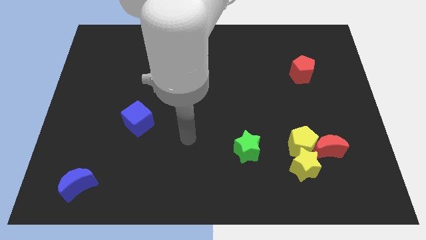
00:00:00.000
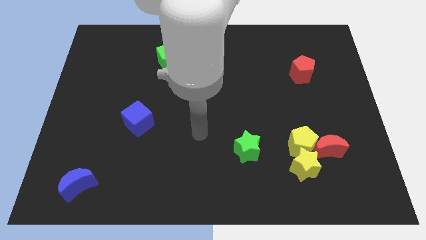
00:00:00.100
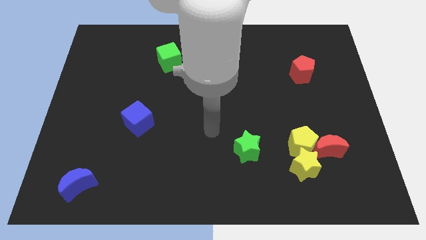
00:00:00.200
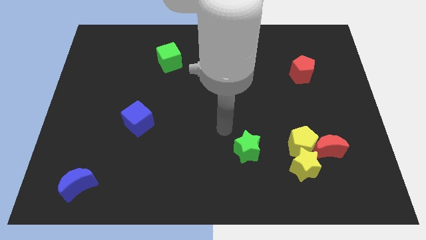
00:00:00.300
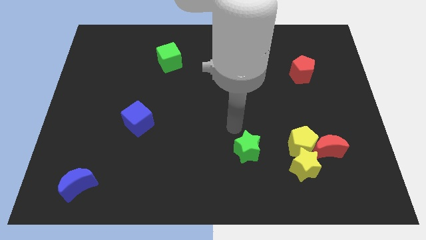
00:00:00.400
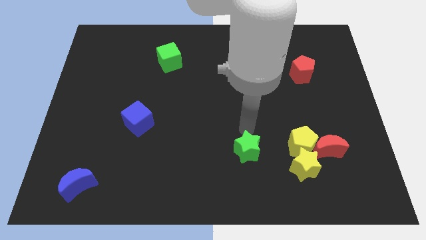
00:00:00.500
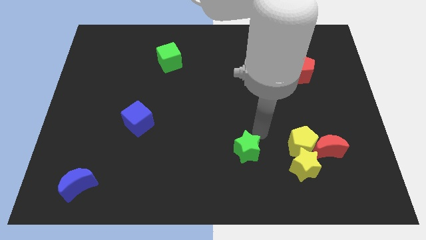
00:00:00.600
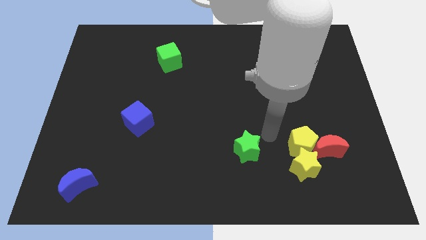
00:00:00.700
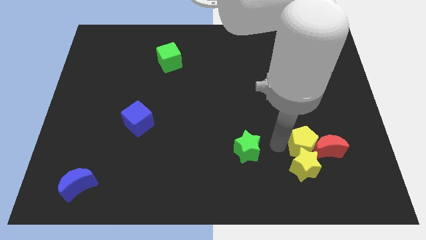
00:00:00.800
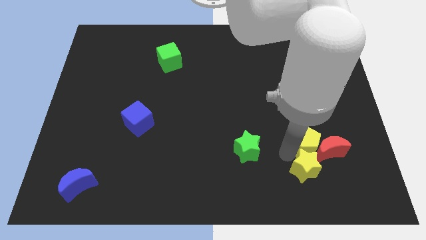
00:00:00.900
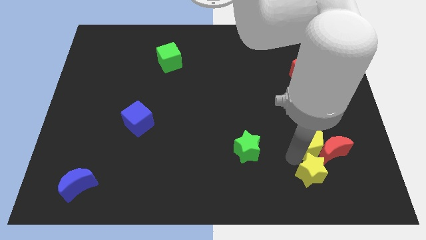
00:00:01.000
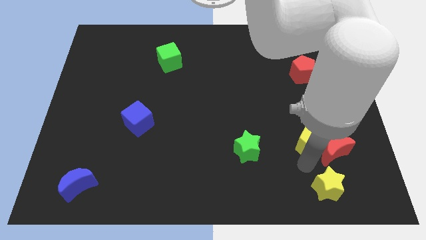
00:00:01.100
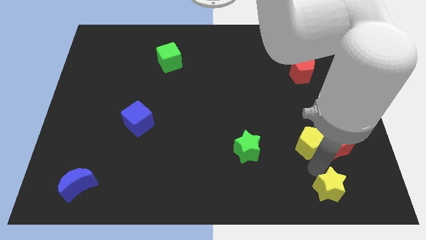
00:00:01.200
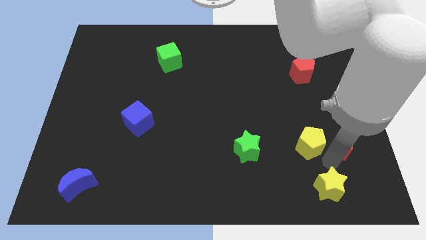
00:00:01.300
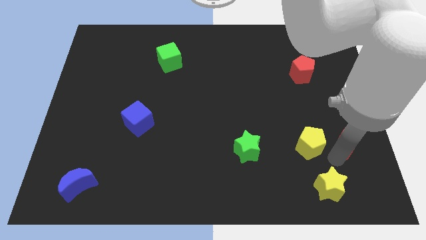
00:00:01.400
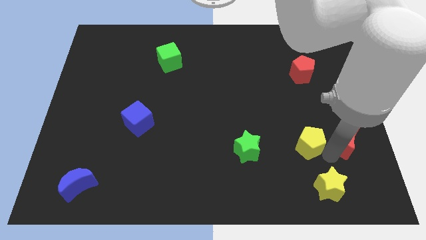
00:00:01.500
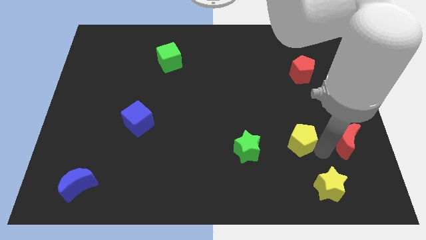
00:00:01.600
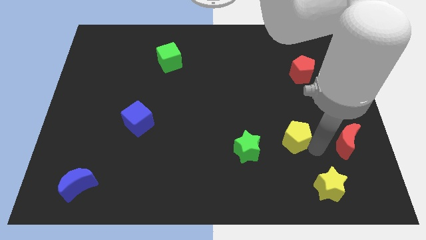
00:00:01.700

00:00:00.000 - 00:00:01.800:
pull the yellow pentagon apart from the yellow star and red moon

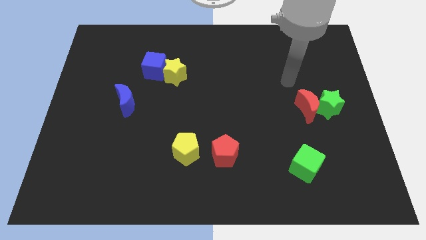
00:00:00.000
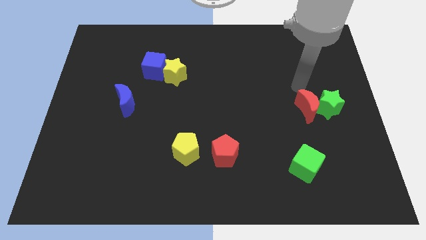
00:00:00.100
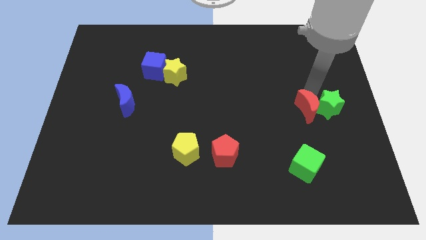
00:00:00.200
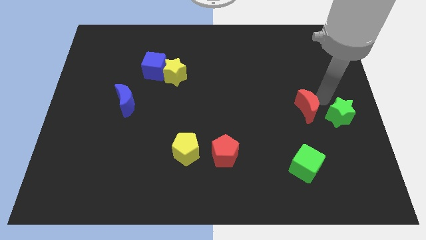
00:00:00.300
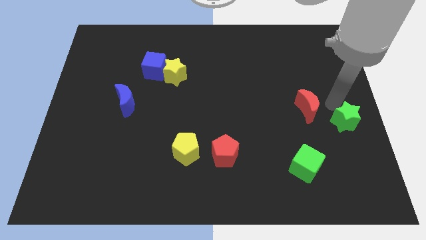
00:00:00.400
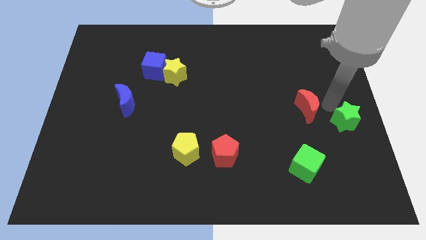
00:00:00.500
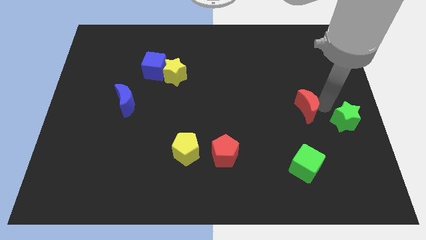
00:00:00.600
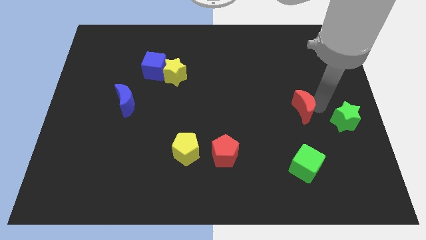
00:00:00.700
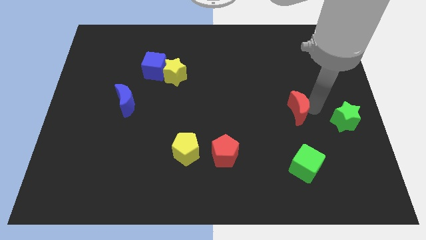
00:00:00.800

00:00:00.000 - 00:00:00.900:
pull the red moon apart from the green star

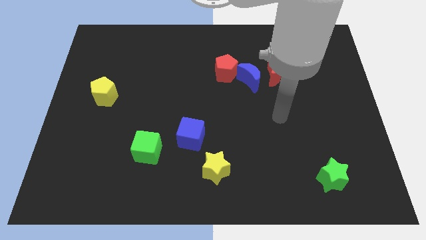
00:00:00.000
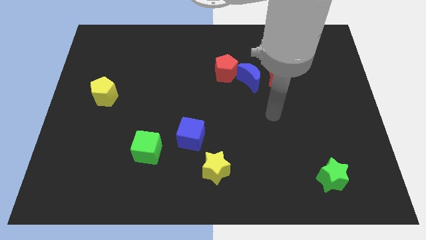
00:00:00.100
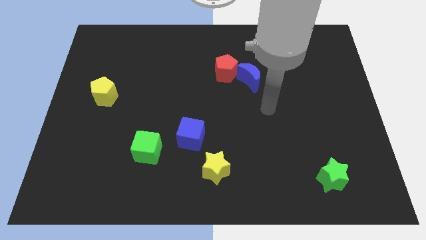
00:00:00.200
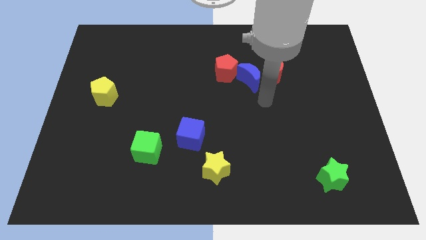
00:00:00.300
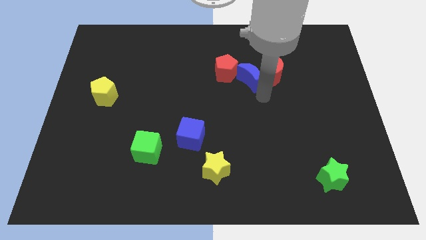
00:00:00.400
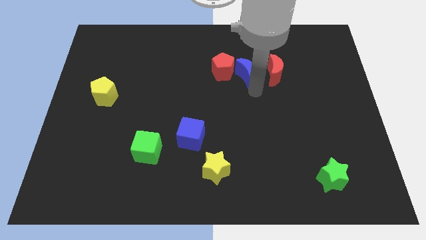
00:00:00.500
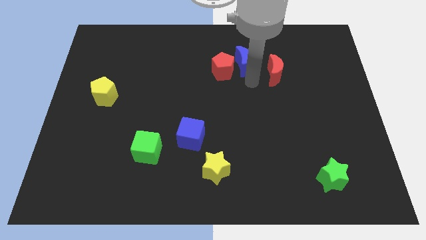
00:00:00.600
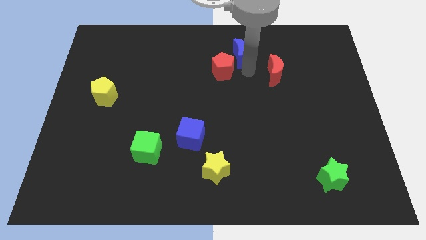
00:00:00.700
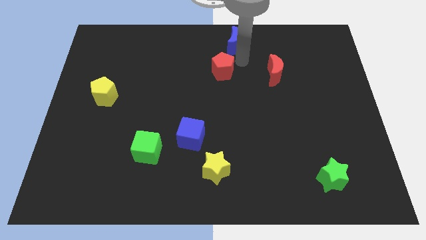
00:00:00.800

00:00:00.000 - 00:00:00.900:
move the red pentagon away from the blue moon

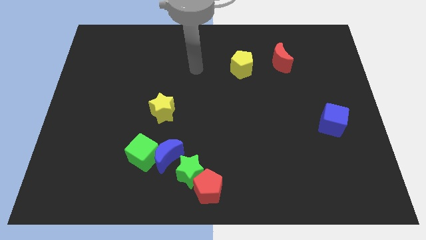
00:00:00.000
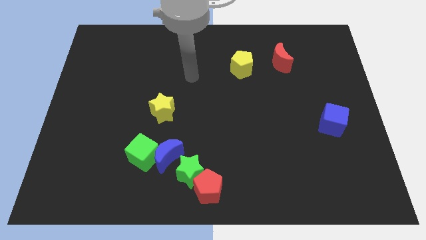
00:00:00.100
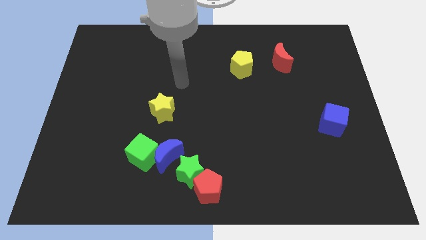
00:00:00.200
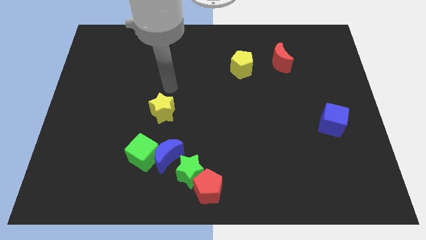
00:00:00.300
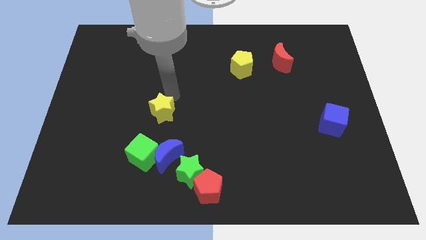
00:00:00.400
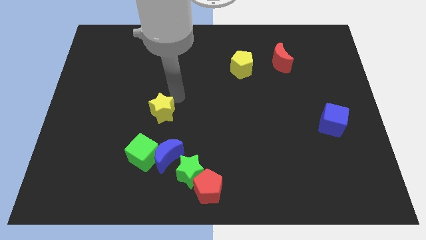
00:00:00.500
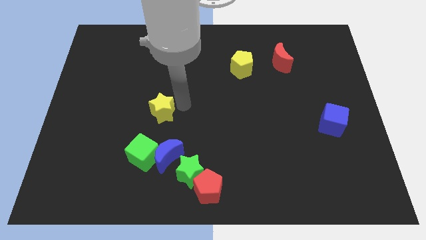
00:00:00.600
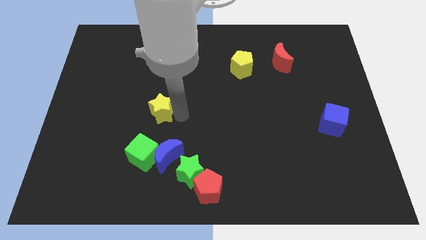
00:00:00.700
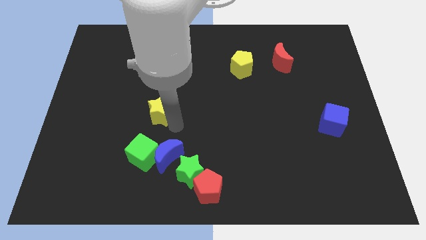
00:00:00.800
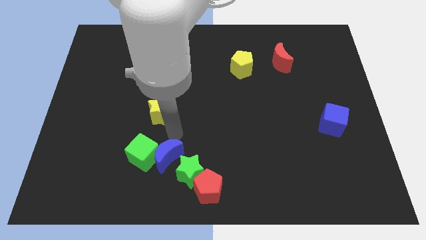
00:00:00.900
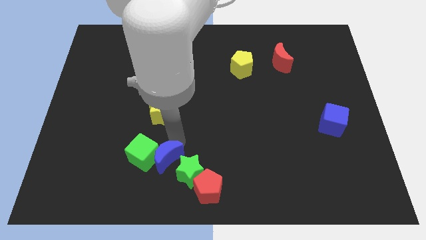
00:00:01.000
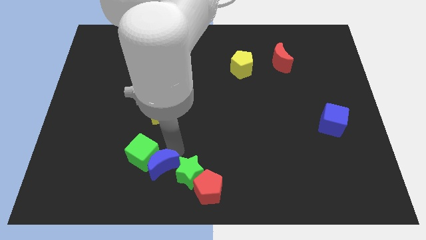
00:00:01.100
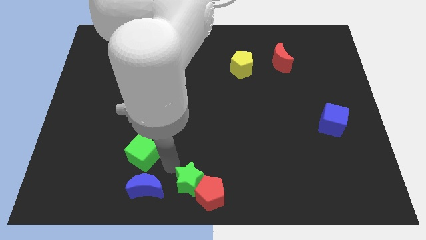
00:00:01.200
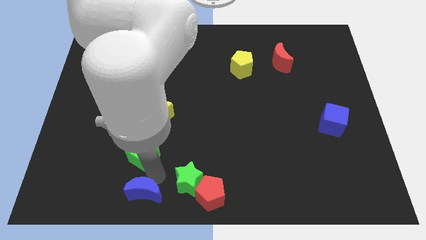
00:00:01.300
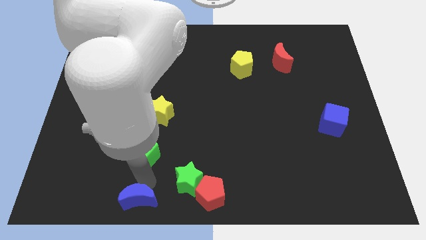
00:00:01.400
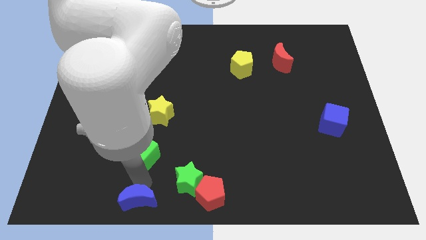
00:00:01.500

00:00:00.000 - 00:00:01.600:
pull the green cube apart from the blue moon

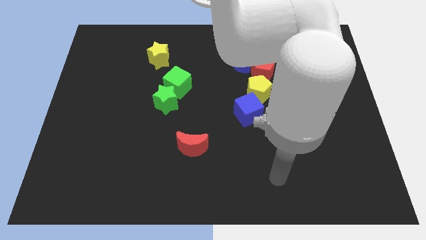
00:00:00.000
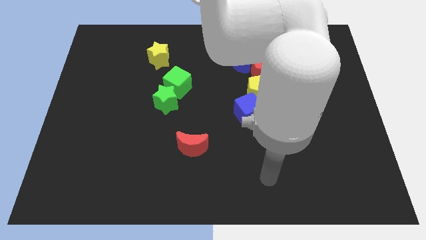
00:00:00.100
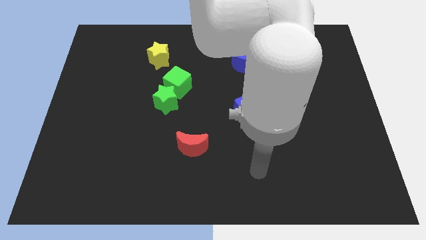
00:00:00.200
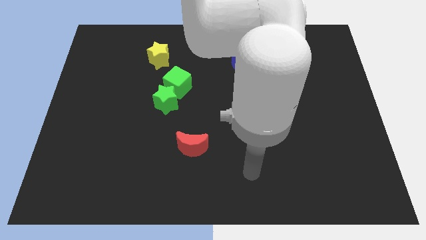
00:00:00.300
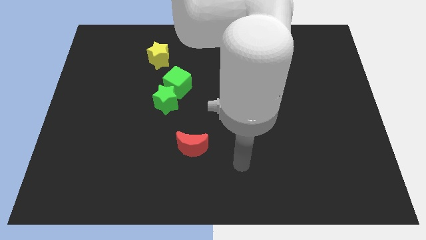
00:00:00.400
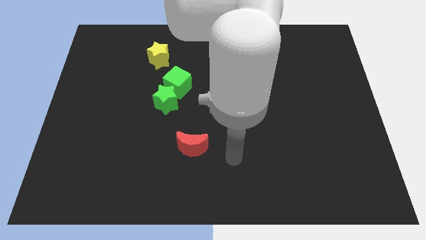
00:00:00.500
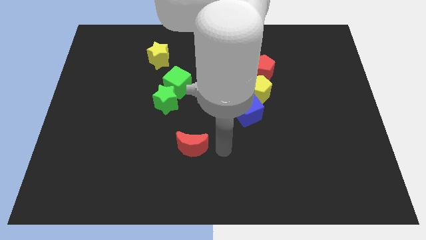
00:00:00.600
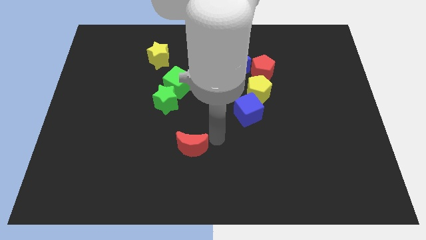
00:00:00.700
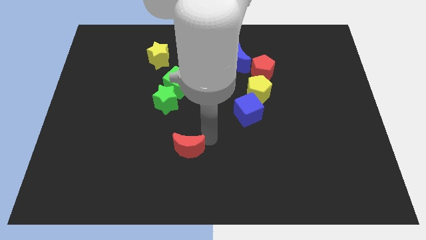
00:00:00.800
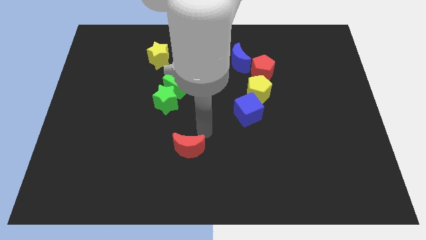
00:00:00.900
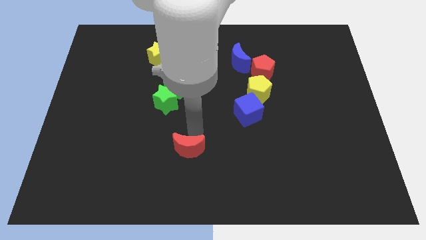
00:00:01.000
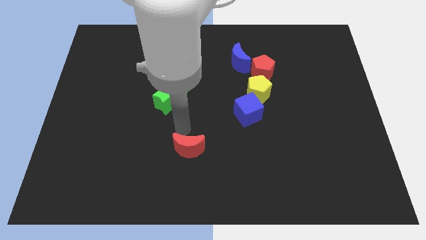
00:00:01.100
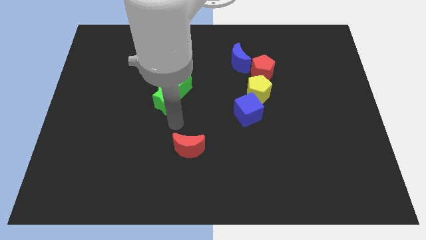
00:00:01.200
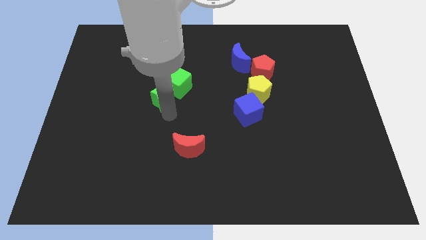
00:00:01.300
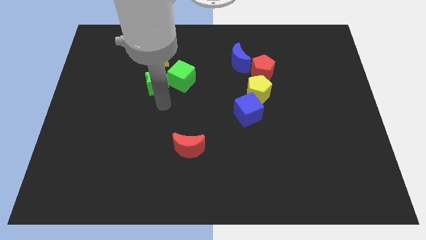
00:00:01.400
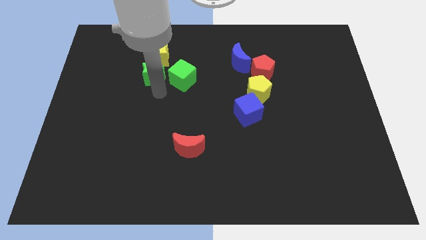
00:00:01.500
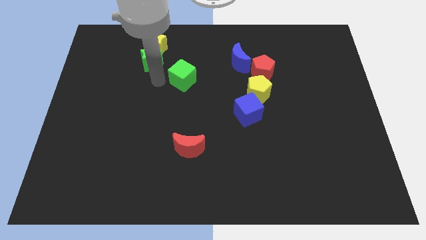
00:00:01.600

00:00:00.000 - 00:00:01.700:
pull the green cube apart from the green star

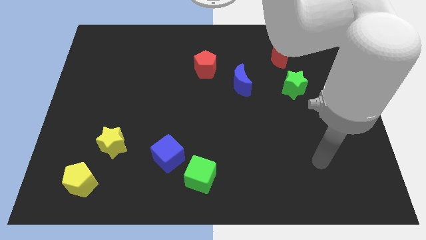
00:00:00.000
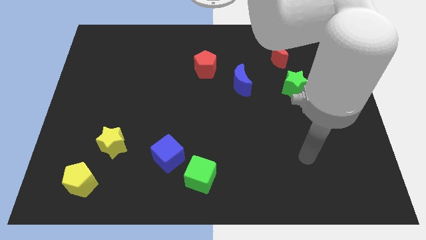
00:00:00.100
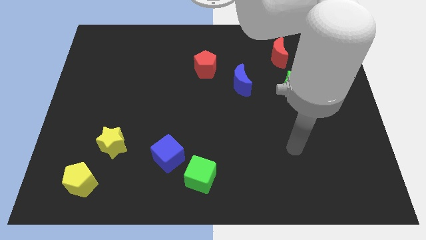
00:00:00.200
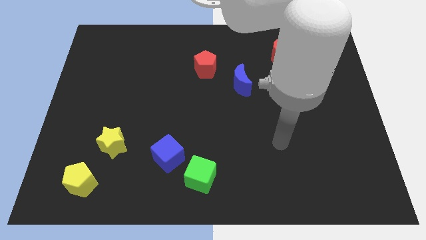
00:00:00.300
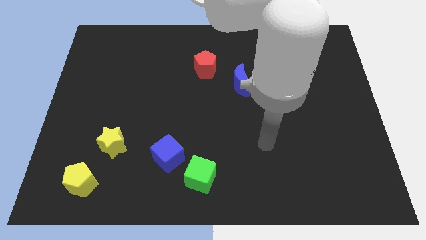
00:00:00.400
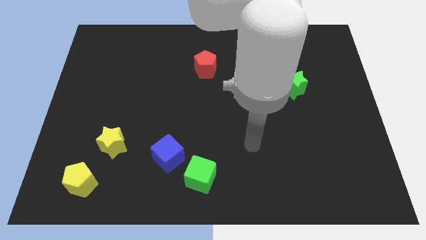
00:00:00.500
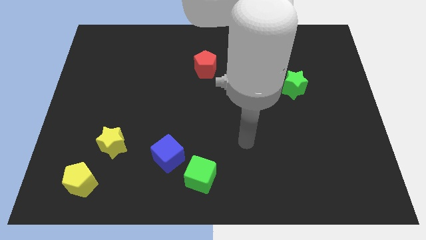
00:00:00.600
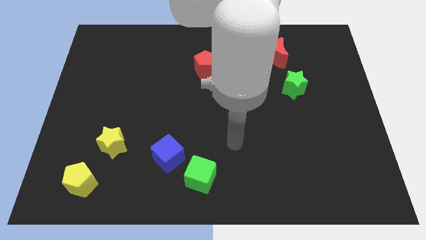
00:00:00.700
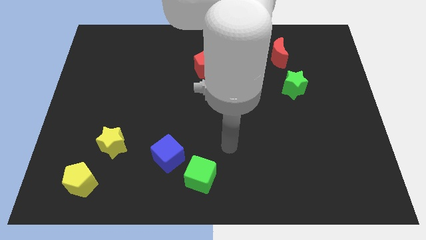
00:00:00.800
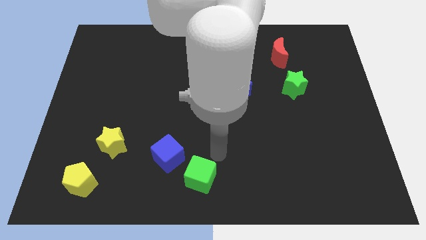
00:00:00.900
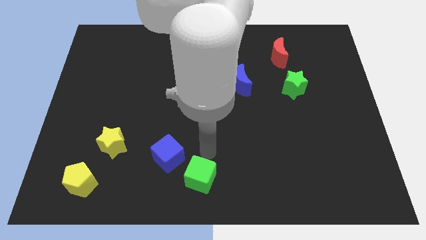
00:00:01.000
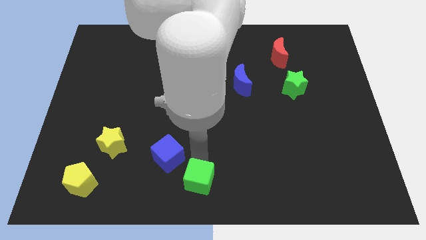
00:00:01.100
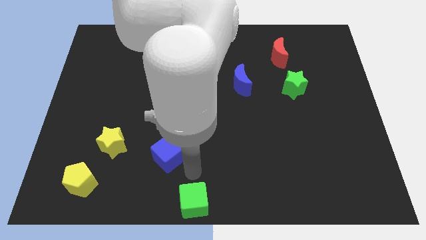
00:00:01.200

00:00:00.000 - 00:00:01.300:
move the blue cube away from the green cube

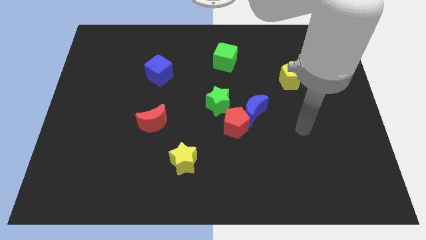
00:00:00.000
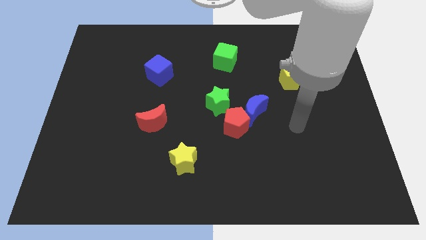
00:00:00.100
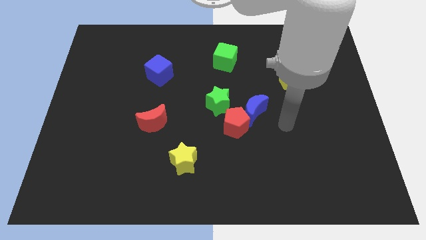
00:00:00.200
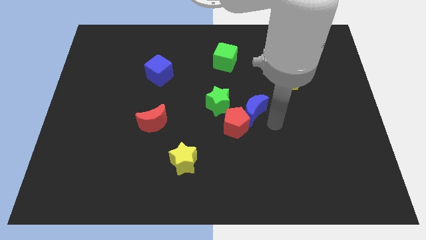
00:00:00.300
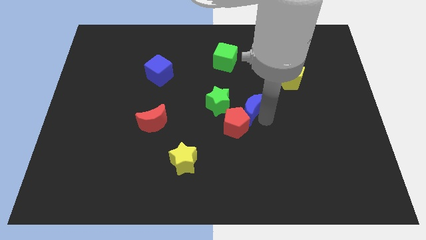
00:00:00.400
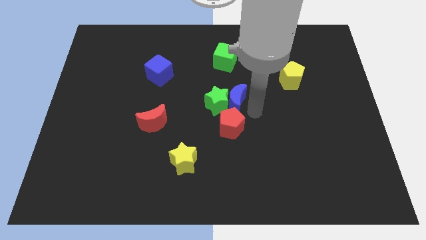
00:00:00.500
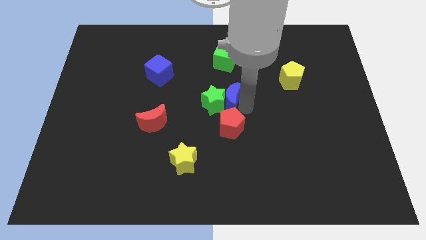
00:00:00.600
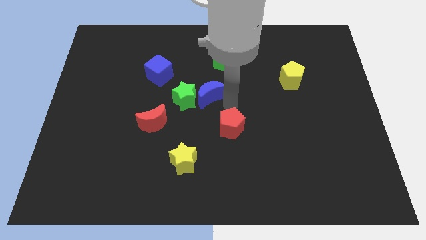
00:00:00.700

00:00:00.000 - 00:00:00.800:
pull the red pentagon apart from the blue moon and green star

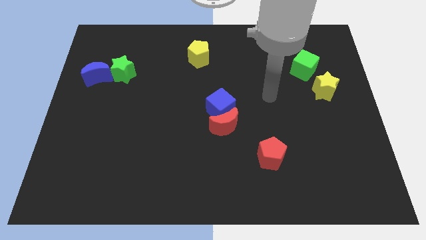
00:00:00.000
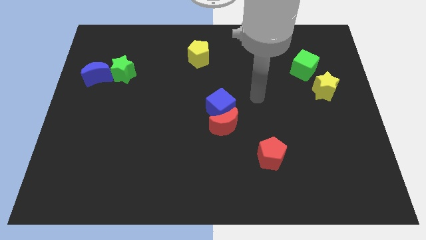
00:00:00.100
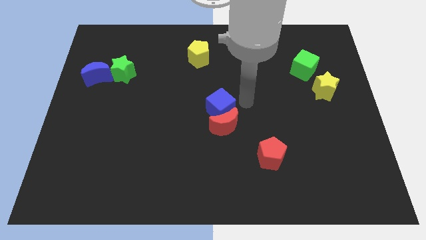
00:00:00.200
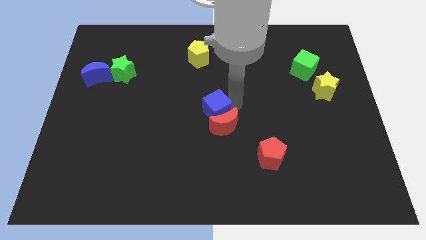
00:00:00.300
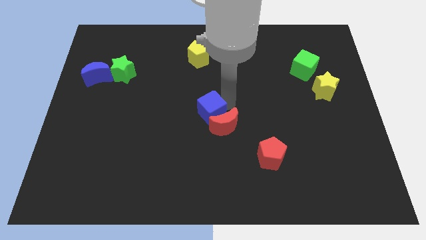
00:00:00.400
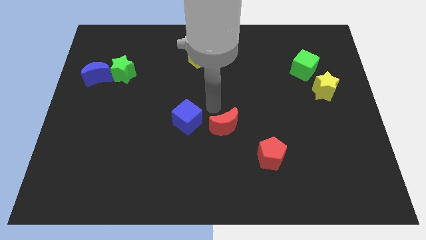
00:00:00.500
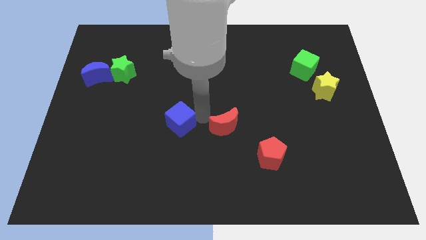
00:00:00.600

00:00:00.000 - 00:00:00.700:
move the red moon away from the blue cube
